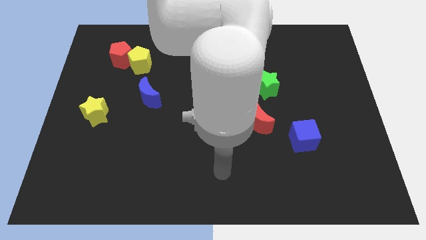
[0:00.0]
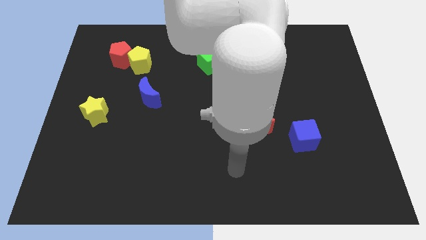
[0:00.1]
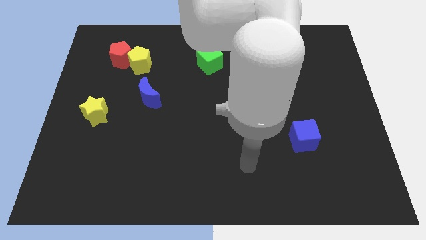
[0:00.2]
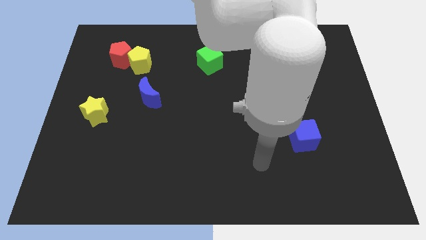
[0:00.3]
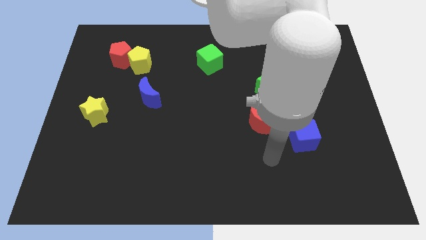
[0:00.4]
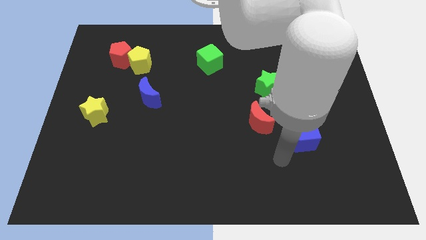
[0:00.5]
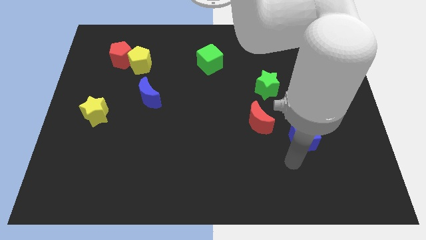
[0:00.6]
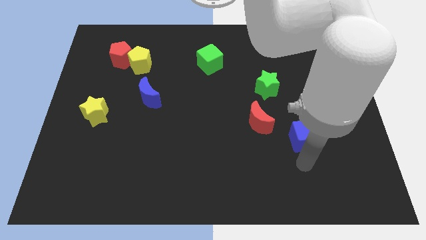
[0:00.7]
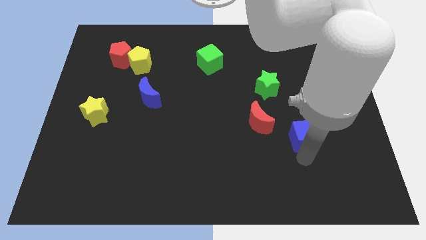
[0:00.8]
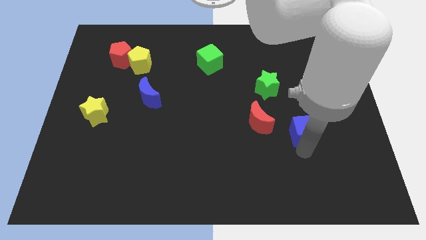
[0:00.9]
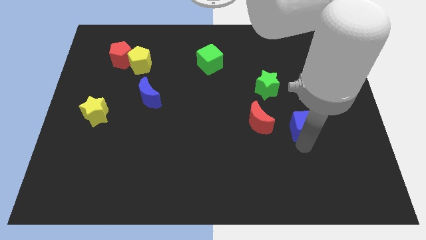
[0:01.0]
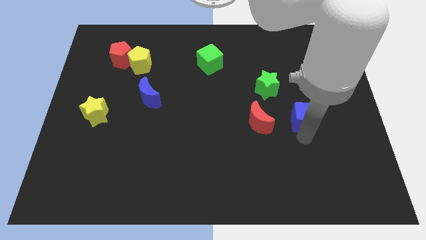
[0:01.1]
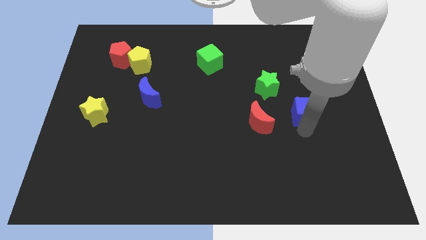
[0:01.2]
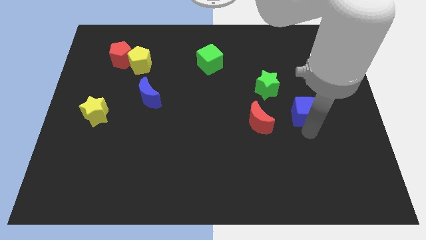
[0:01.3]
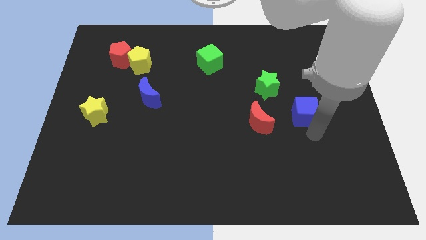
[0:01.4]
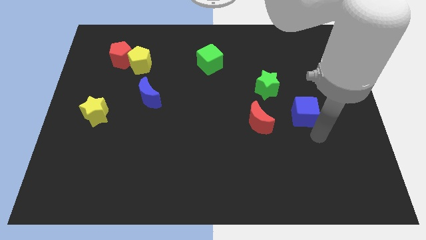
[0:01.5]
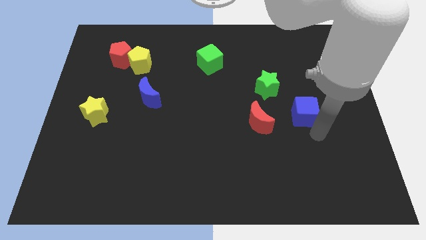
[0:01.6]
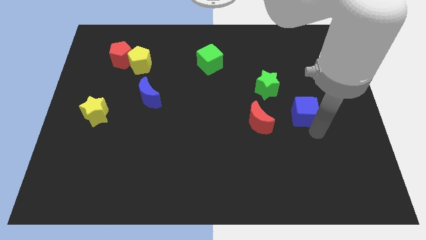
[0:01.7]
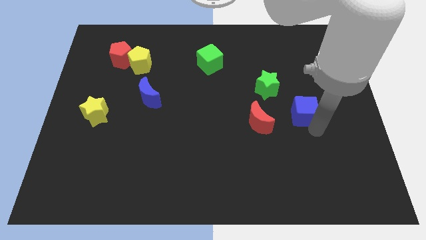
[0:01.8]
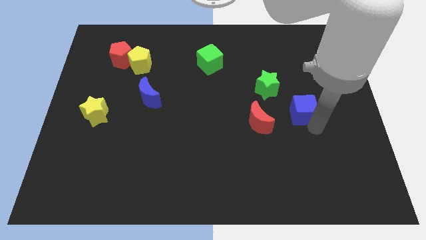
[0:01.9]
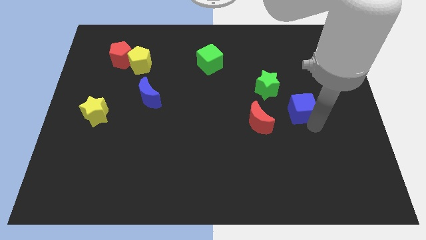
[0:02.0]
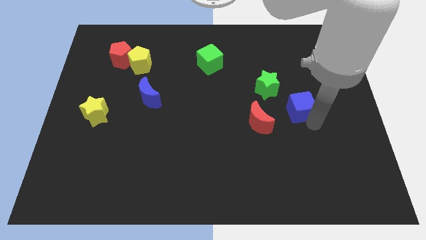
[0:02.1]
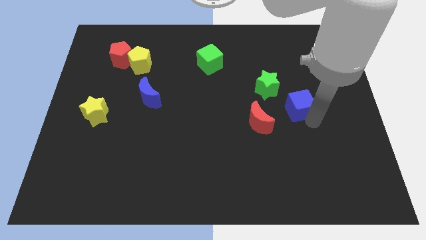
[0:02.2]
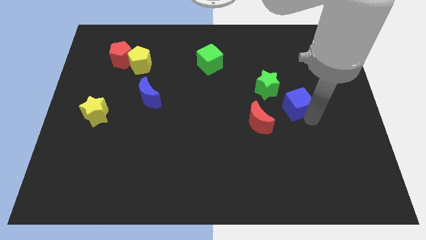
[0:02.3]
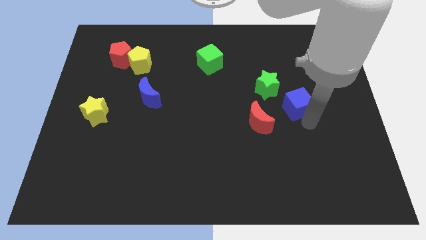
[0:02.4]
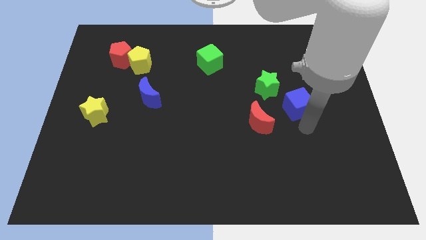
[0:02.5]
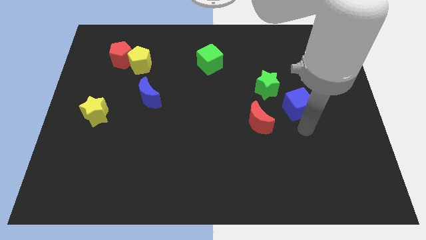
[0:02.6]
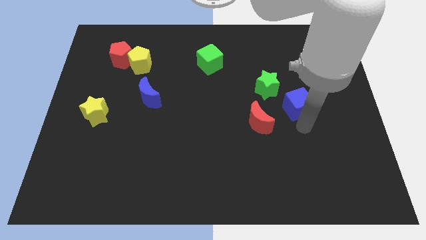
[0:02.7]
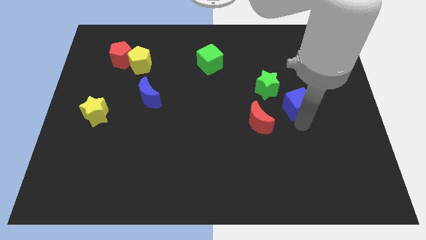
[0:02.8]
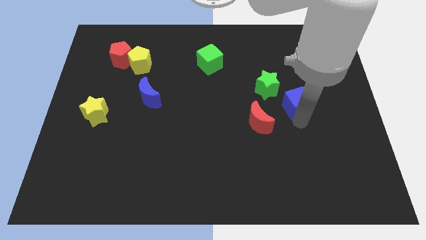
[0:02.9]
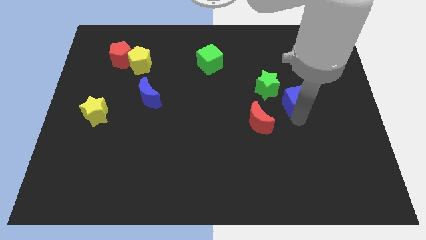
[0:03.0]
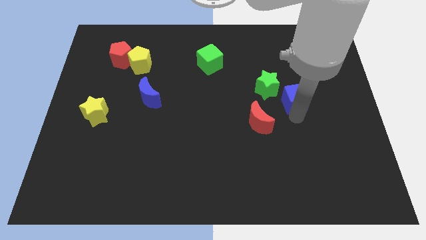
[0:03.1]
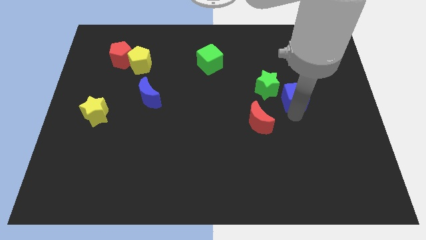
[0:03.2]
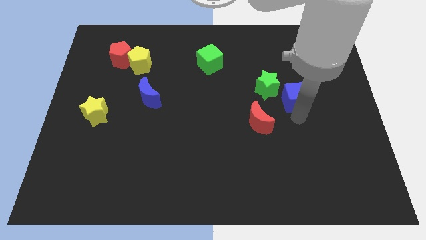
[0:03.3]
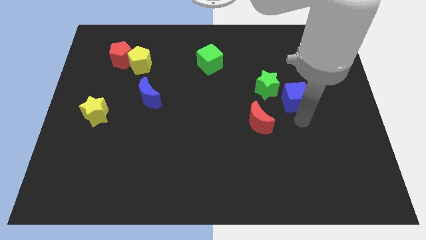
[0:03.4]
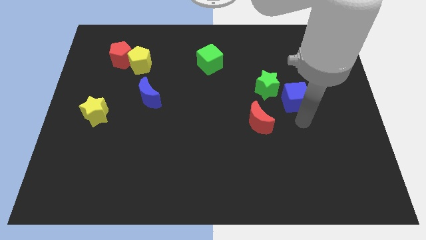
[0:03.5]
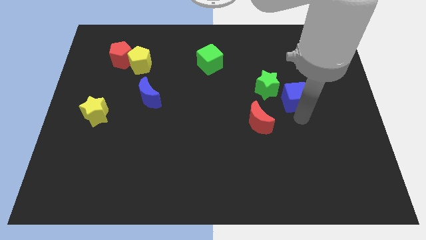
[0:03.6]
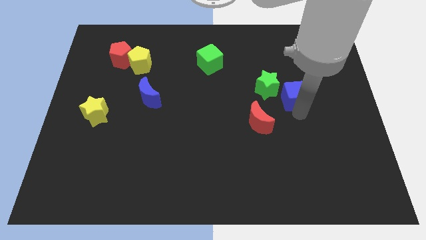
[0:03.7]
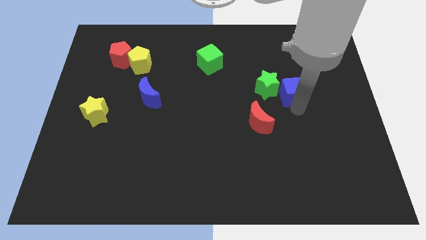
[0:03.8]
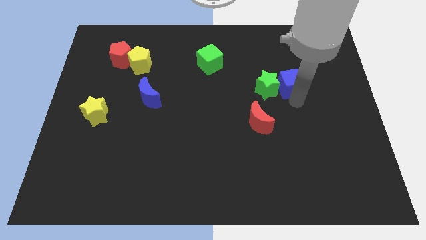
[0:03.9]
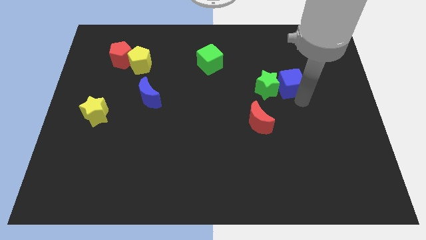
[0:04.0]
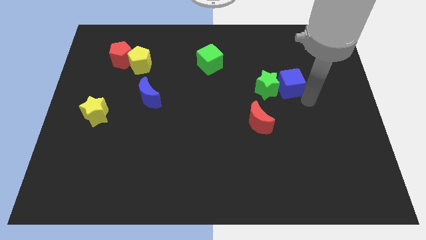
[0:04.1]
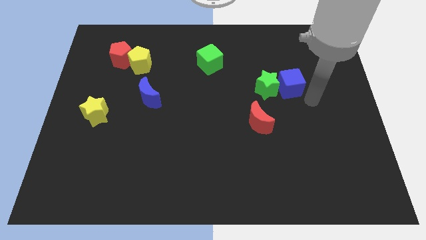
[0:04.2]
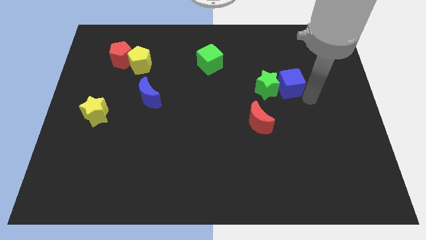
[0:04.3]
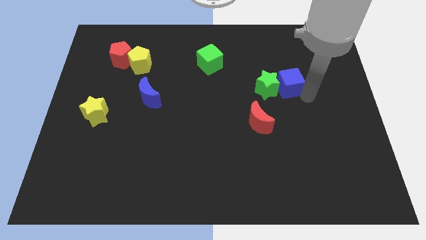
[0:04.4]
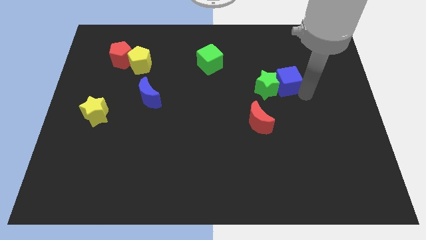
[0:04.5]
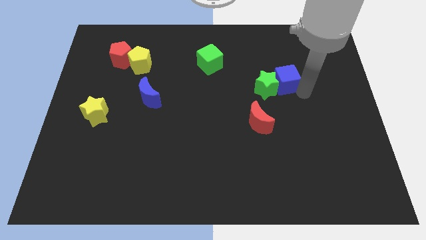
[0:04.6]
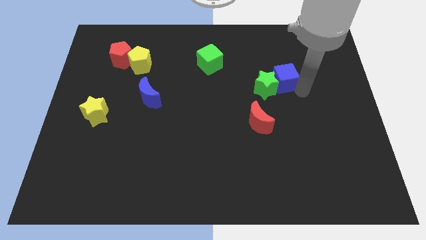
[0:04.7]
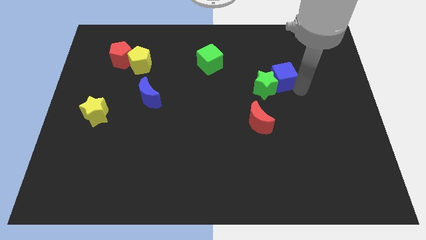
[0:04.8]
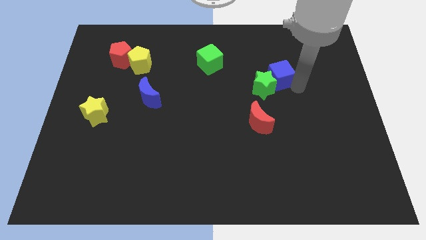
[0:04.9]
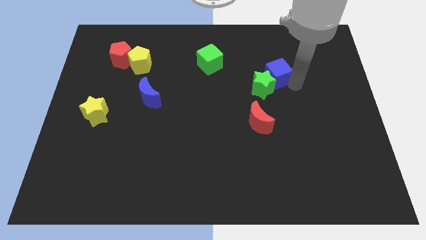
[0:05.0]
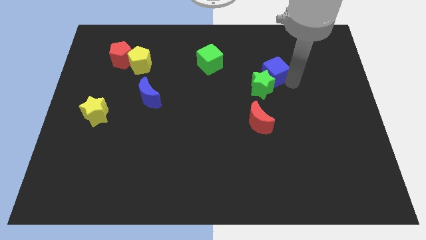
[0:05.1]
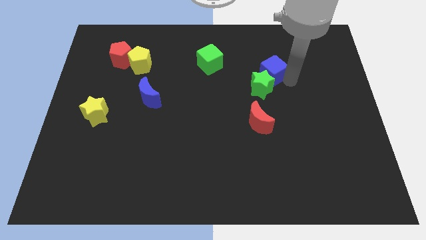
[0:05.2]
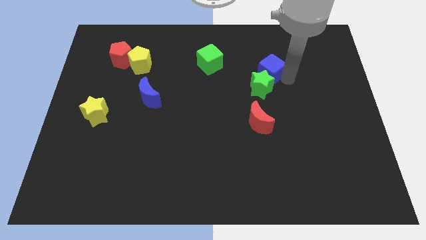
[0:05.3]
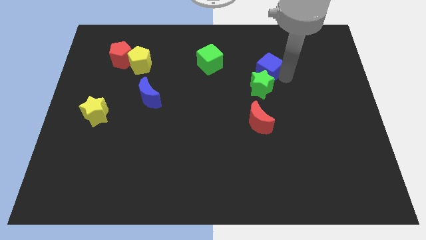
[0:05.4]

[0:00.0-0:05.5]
push the blue cube right of the green cube

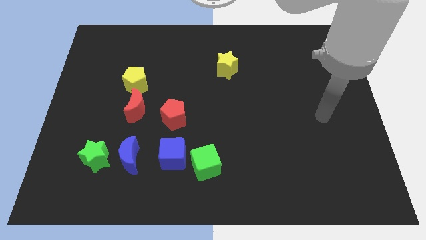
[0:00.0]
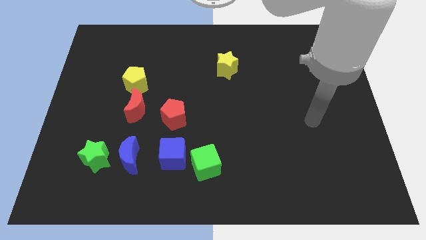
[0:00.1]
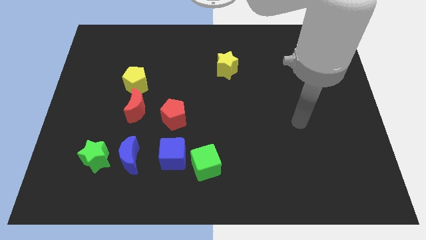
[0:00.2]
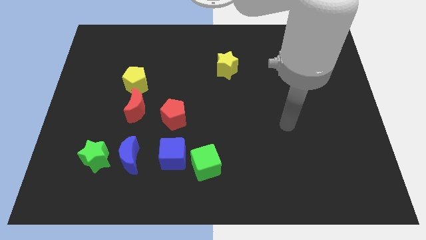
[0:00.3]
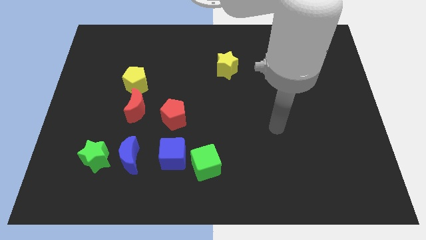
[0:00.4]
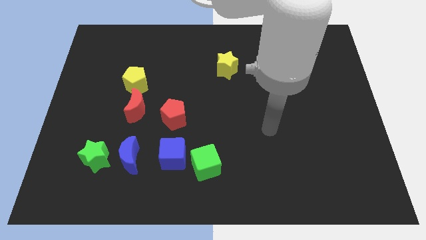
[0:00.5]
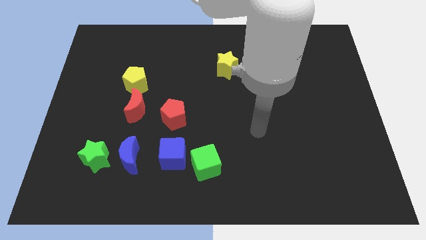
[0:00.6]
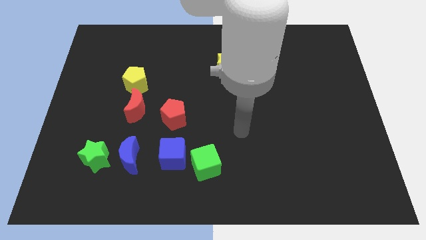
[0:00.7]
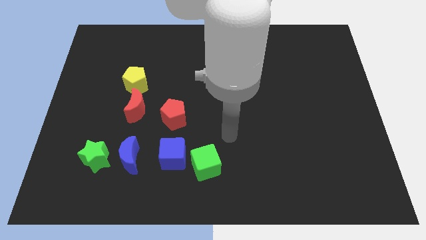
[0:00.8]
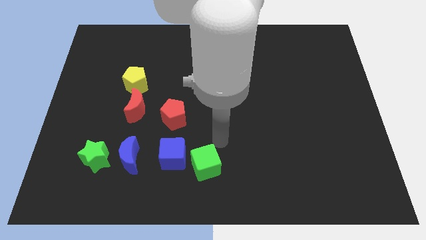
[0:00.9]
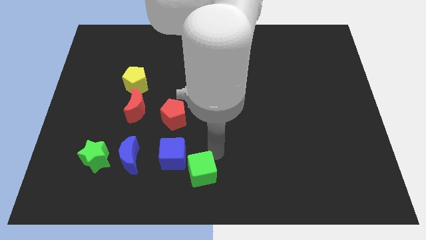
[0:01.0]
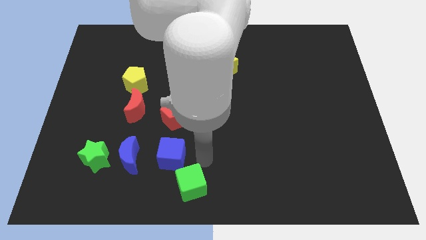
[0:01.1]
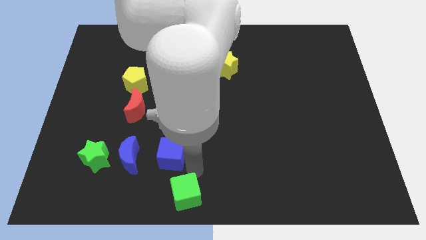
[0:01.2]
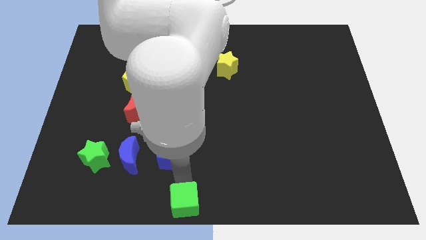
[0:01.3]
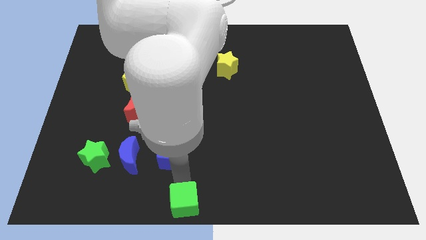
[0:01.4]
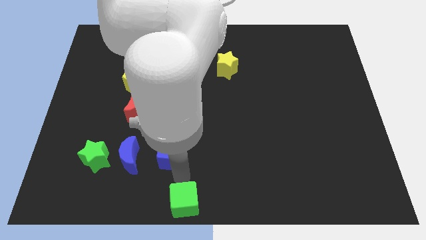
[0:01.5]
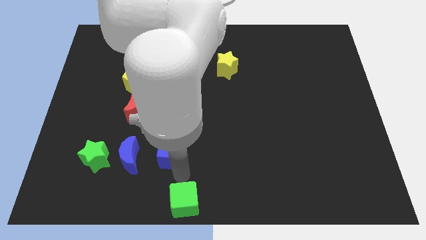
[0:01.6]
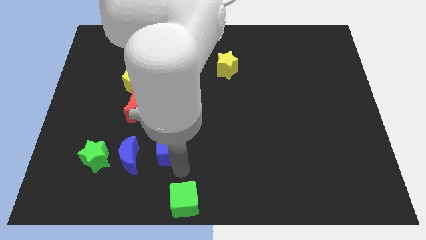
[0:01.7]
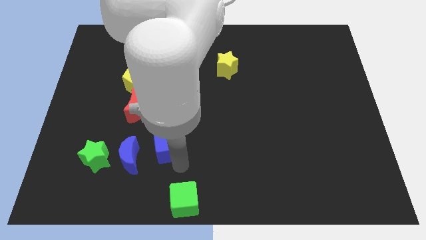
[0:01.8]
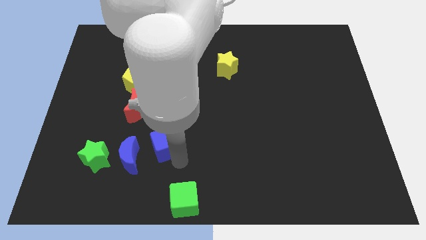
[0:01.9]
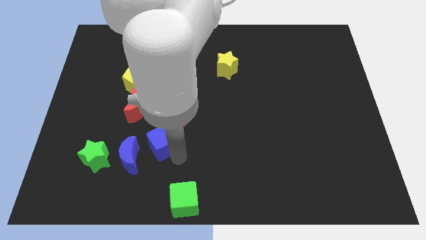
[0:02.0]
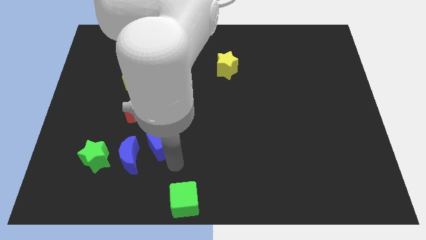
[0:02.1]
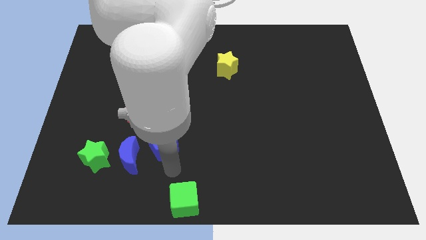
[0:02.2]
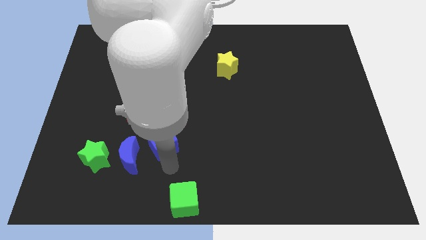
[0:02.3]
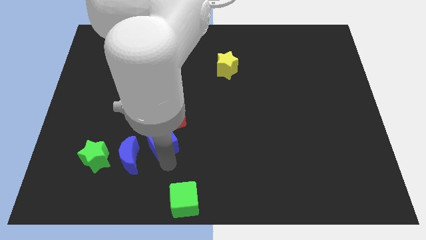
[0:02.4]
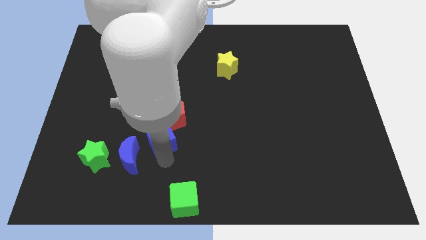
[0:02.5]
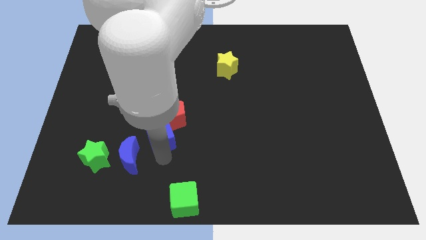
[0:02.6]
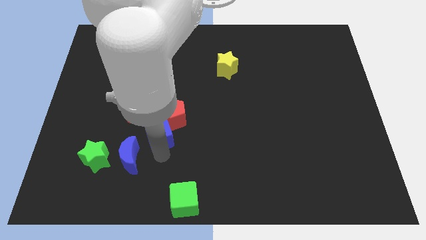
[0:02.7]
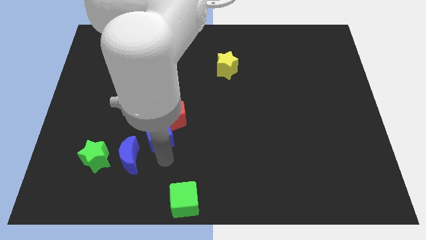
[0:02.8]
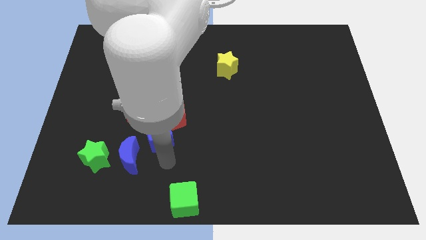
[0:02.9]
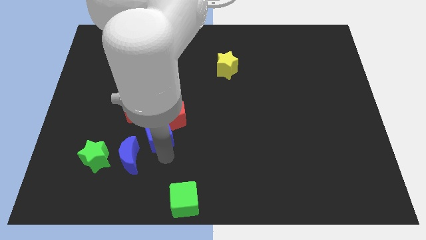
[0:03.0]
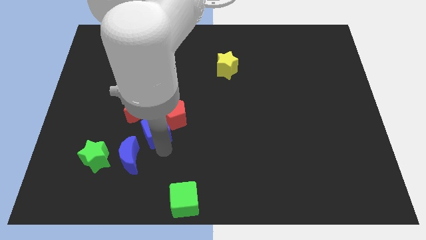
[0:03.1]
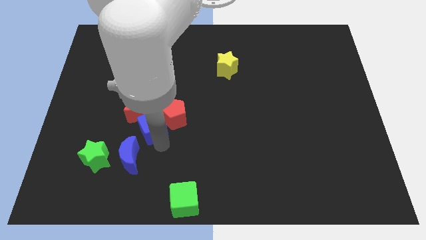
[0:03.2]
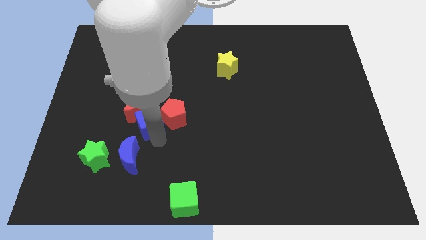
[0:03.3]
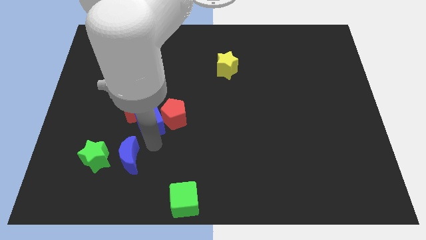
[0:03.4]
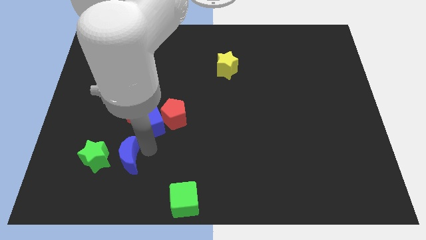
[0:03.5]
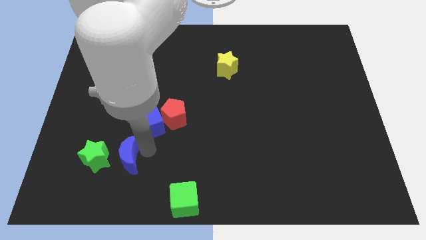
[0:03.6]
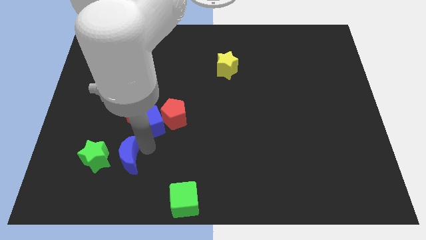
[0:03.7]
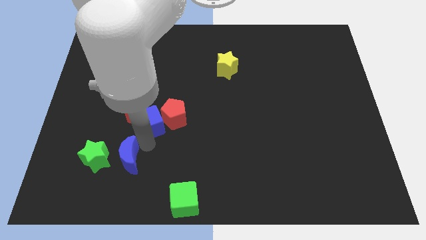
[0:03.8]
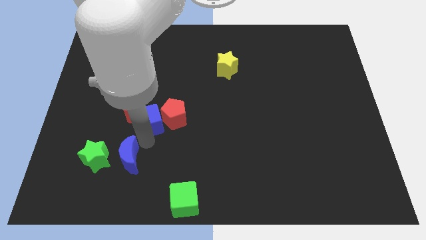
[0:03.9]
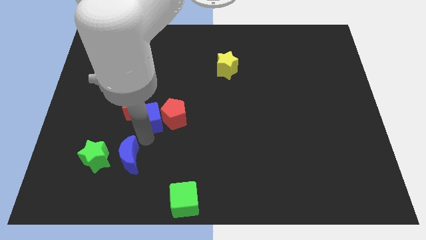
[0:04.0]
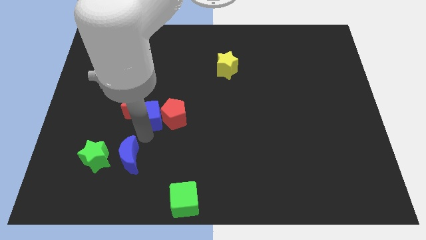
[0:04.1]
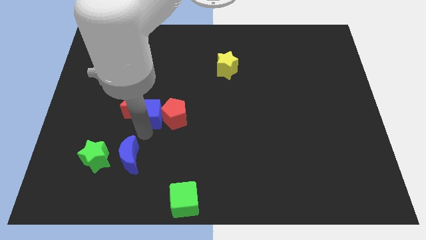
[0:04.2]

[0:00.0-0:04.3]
slide the blue cube to the bottom right of the yellow pentagon
